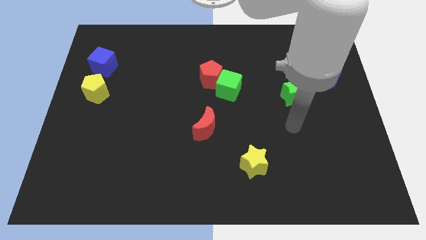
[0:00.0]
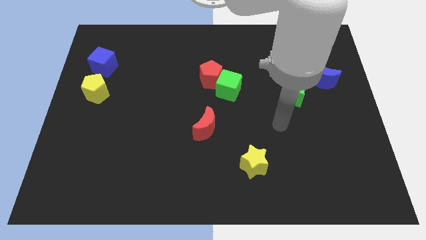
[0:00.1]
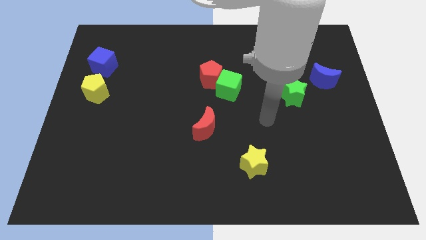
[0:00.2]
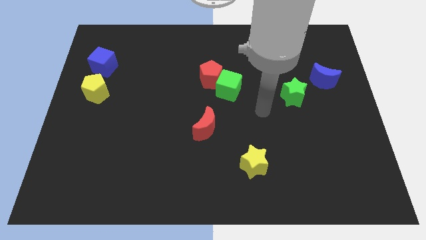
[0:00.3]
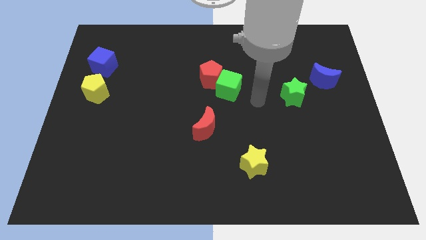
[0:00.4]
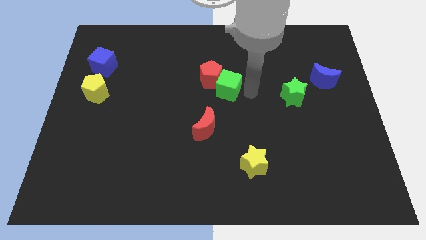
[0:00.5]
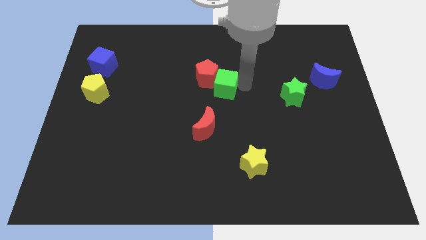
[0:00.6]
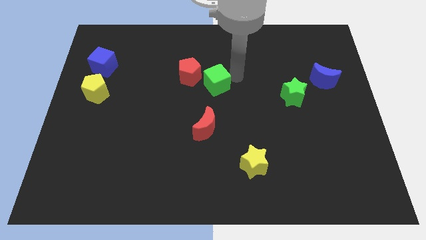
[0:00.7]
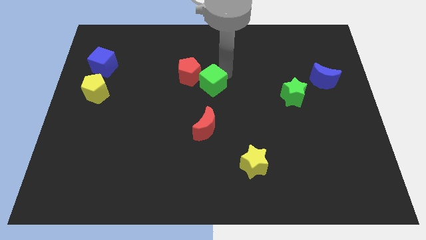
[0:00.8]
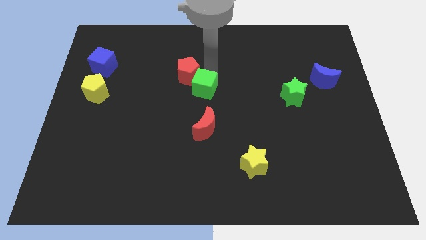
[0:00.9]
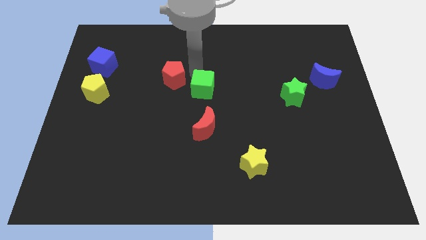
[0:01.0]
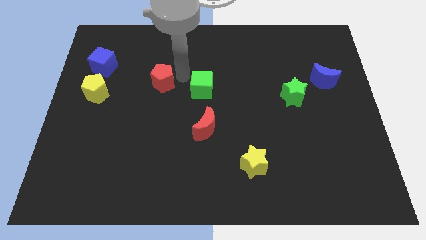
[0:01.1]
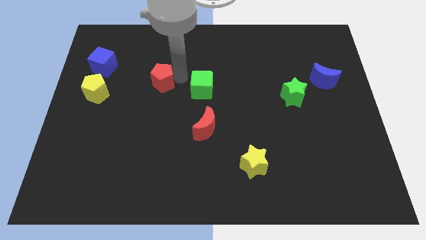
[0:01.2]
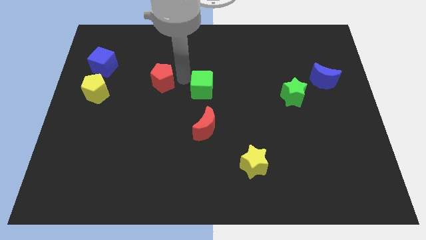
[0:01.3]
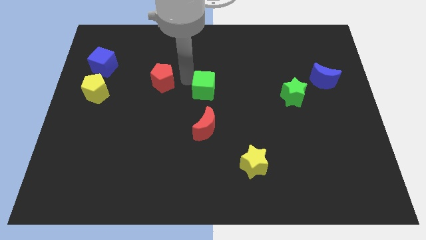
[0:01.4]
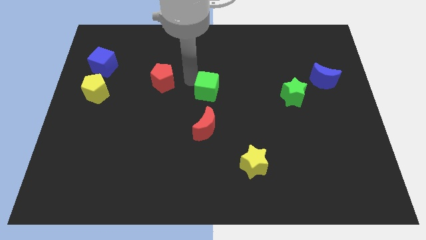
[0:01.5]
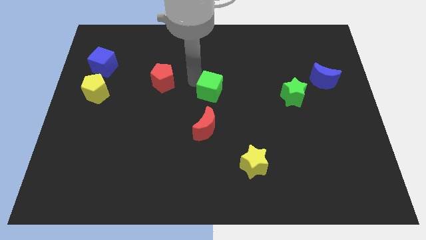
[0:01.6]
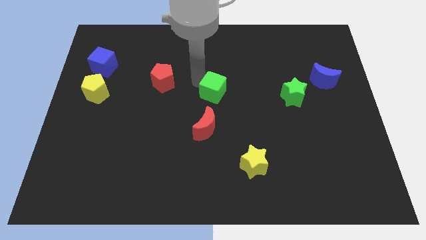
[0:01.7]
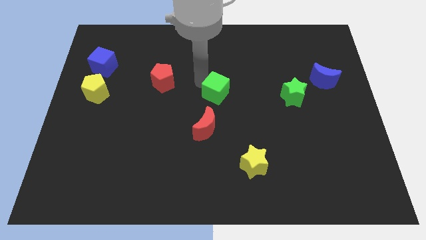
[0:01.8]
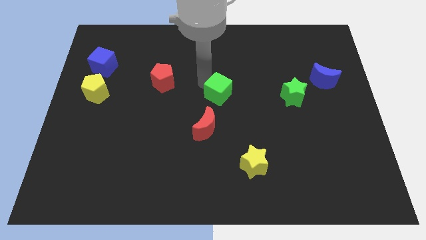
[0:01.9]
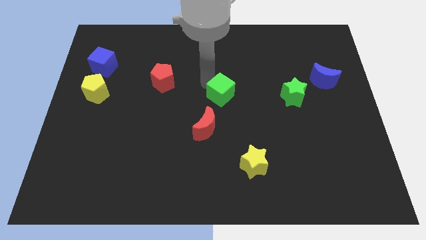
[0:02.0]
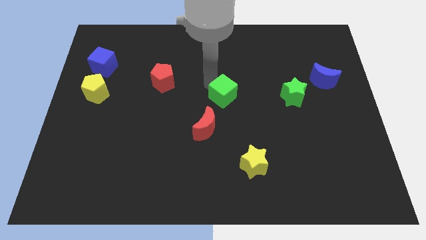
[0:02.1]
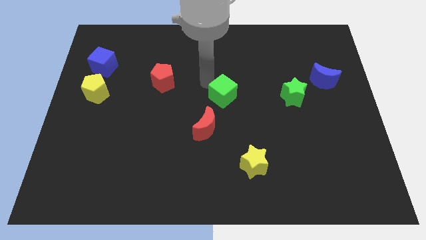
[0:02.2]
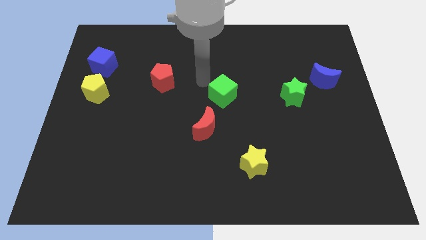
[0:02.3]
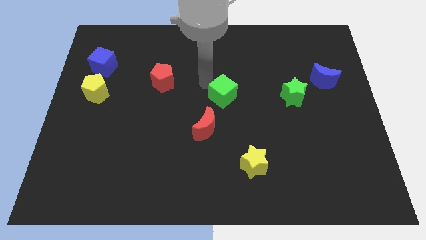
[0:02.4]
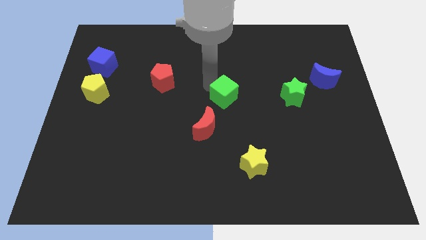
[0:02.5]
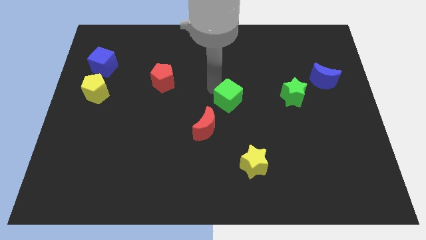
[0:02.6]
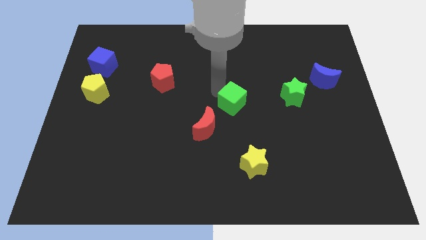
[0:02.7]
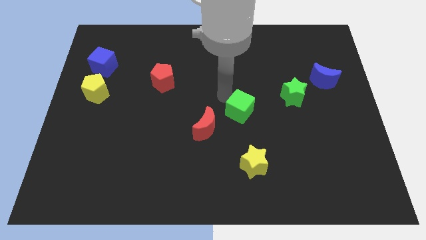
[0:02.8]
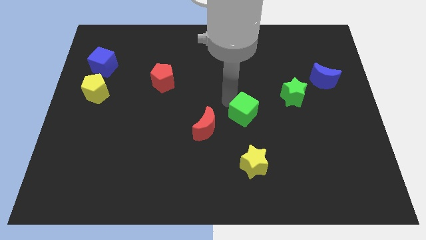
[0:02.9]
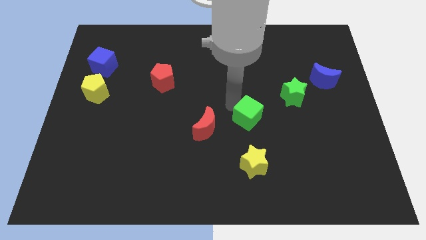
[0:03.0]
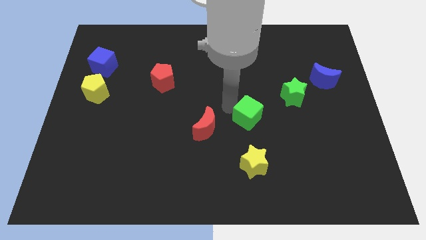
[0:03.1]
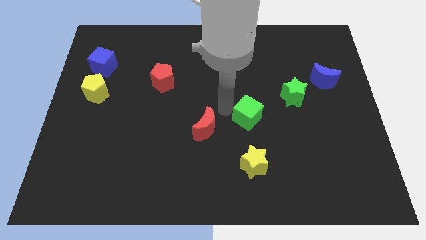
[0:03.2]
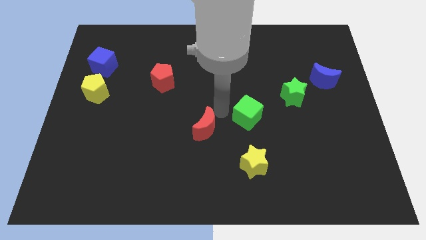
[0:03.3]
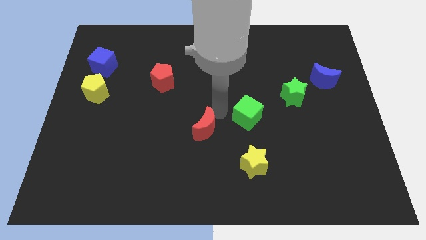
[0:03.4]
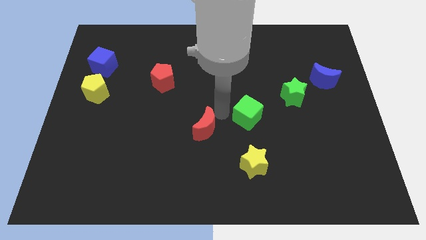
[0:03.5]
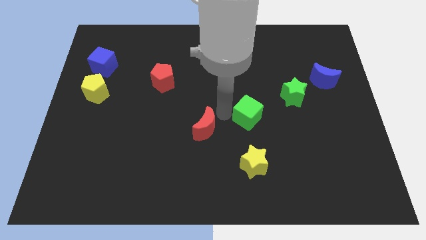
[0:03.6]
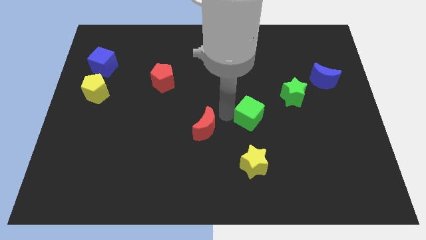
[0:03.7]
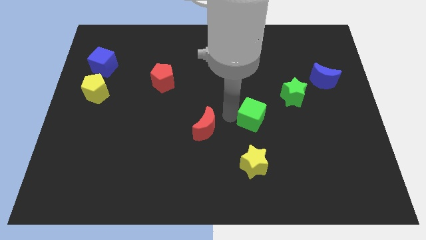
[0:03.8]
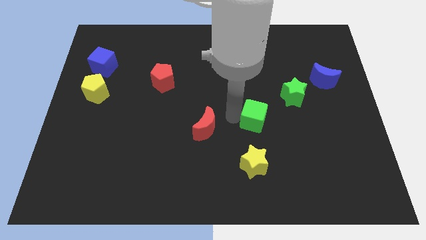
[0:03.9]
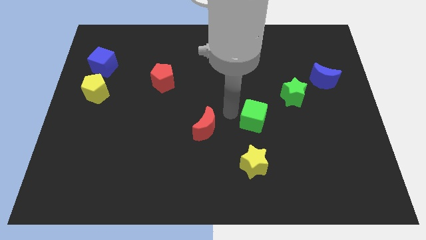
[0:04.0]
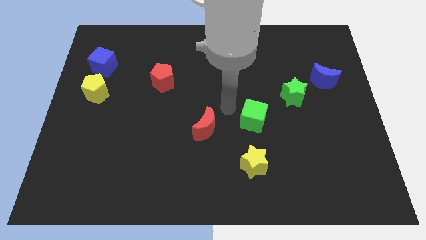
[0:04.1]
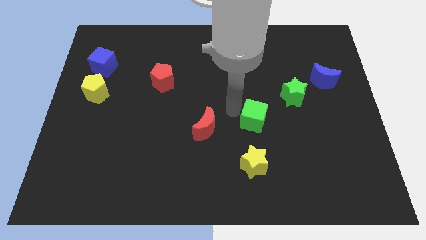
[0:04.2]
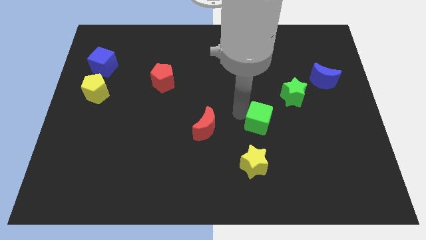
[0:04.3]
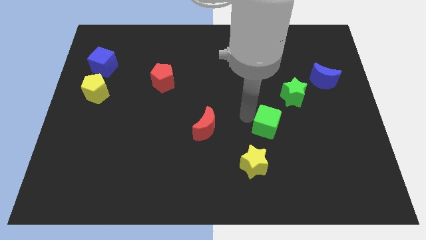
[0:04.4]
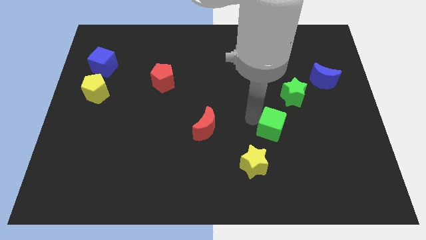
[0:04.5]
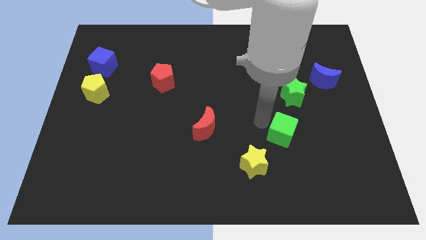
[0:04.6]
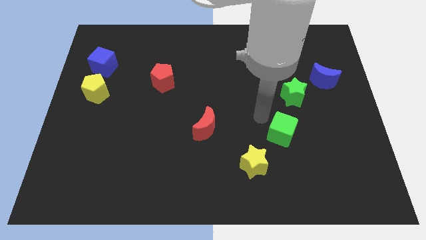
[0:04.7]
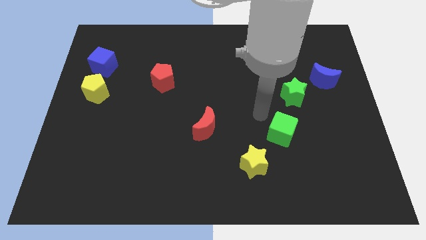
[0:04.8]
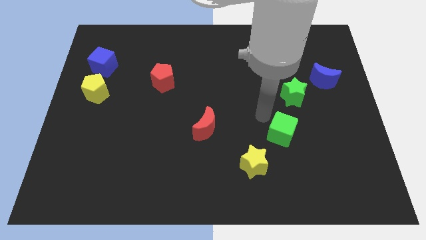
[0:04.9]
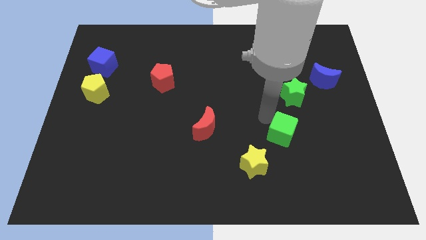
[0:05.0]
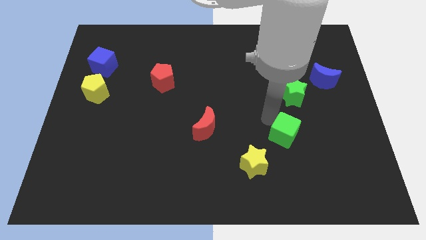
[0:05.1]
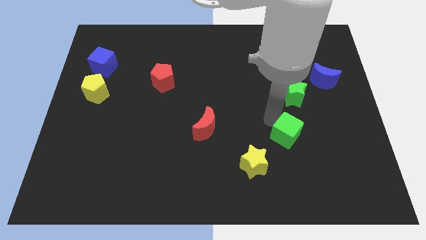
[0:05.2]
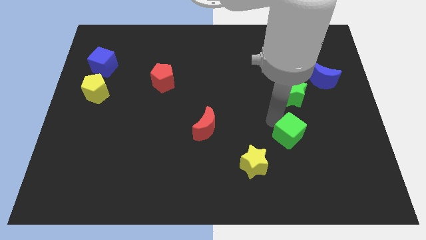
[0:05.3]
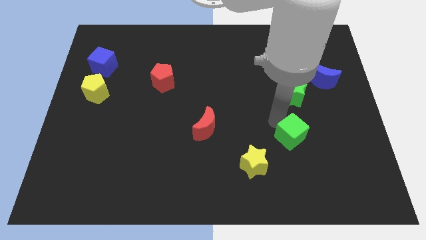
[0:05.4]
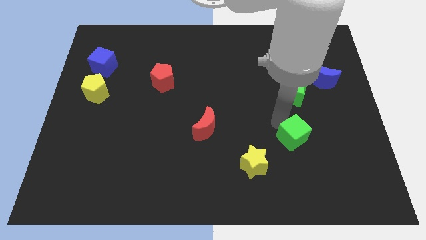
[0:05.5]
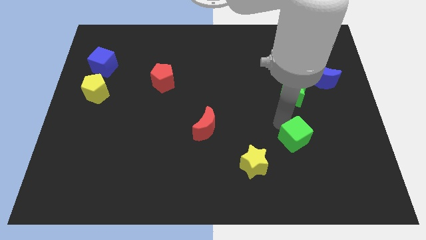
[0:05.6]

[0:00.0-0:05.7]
push the green cube diagonally down and right

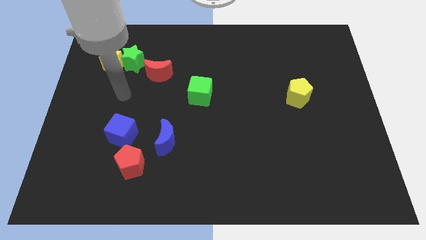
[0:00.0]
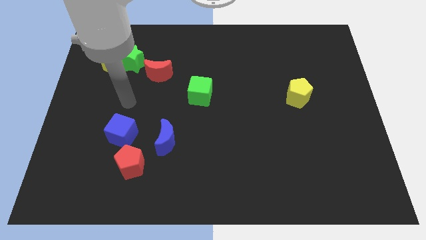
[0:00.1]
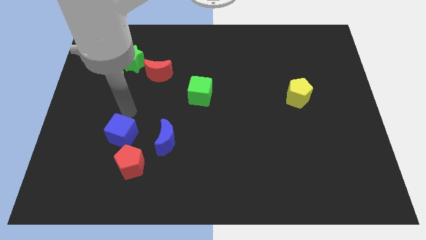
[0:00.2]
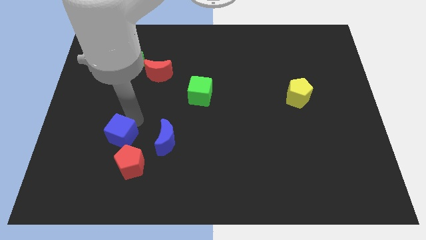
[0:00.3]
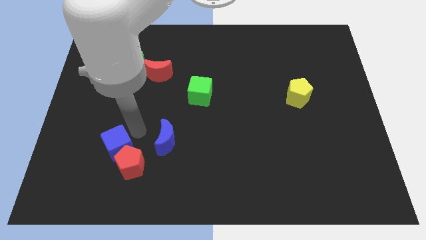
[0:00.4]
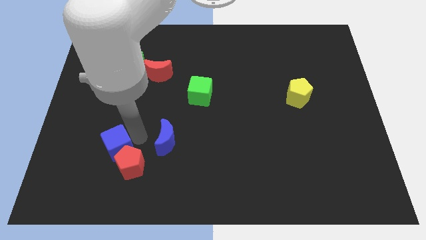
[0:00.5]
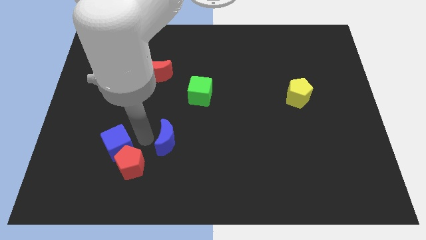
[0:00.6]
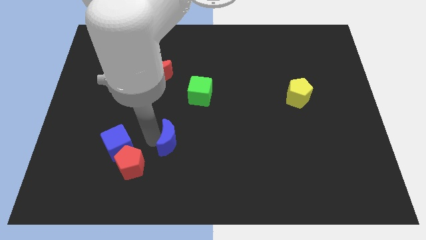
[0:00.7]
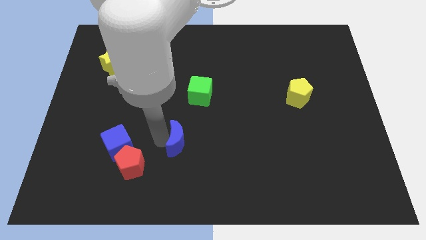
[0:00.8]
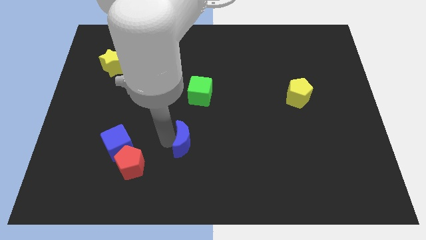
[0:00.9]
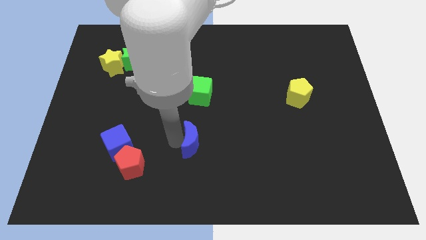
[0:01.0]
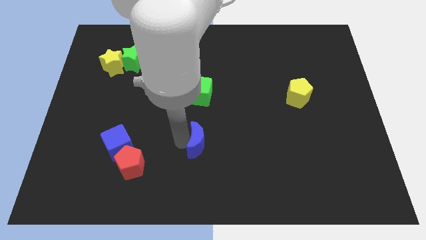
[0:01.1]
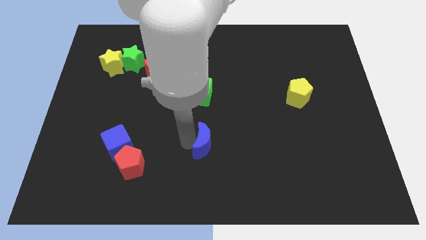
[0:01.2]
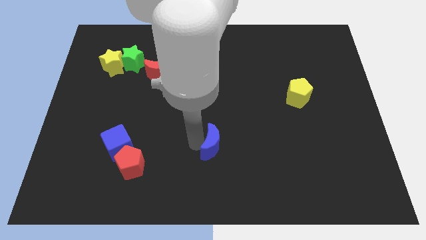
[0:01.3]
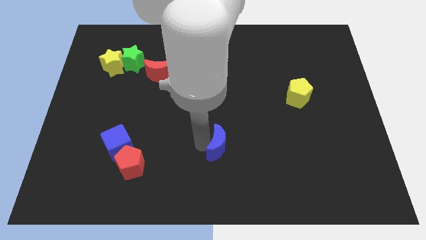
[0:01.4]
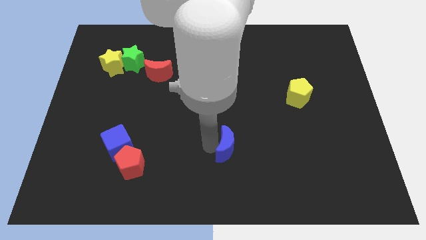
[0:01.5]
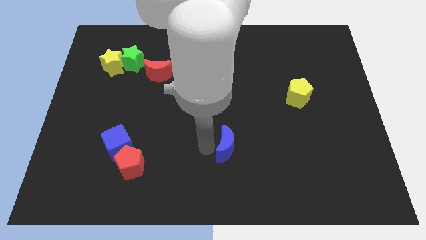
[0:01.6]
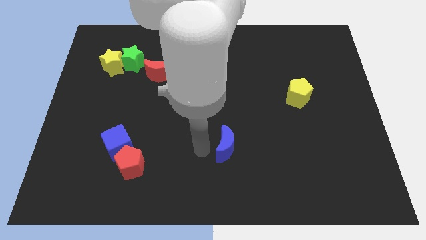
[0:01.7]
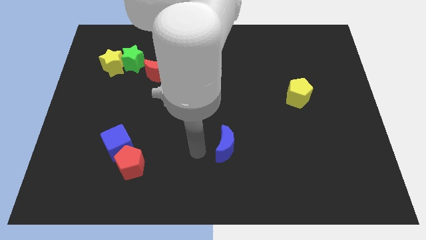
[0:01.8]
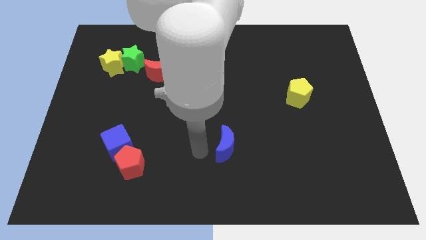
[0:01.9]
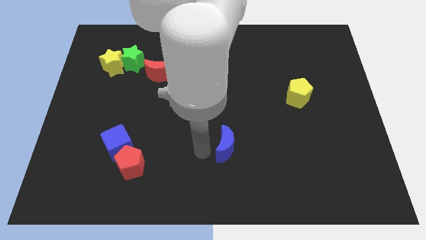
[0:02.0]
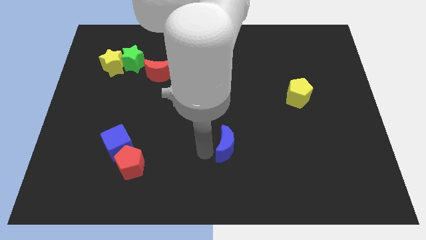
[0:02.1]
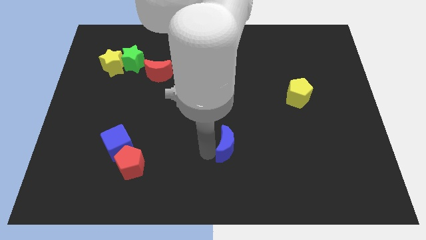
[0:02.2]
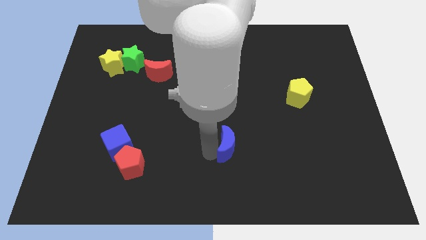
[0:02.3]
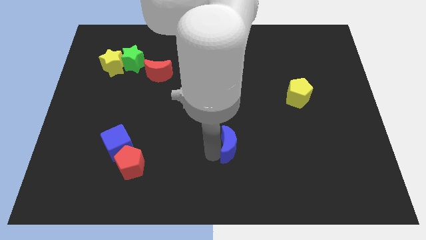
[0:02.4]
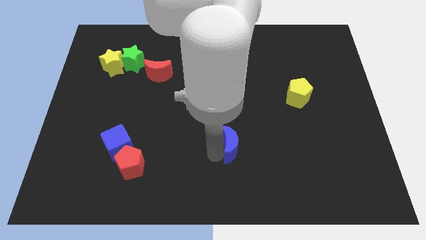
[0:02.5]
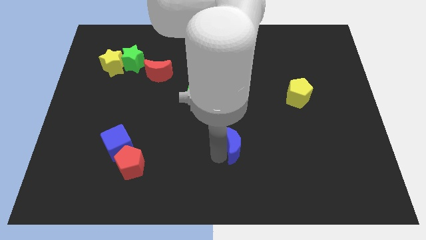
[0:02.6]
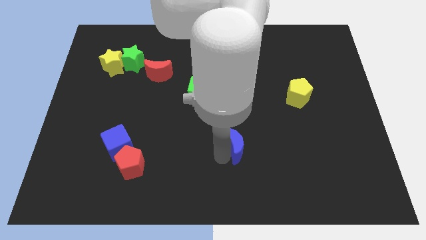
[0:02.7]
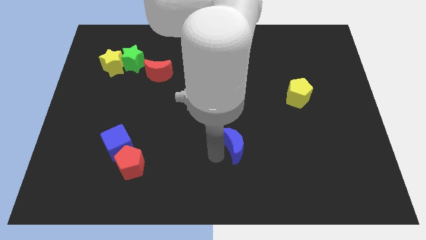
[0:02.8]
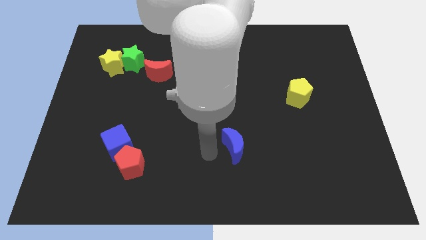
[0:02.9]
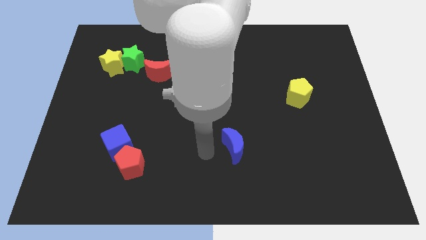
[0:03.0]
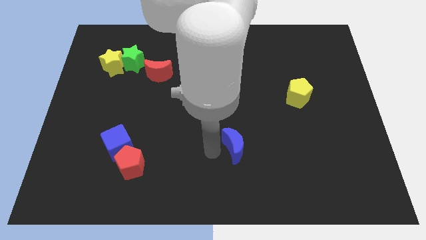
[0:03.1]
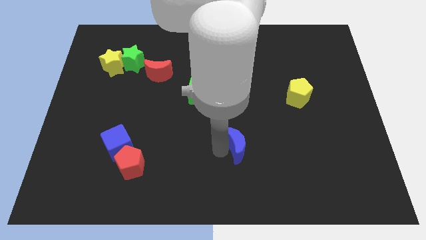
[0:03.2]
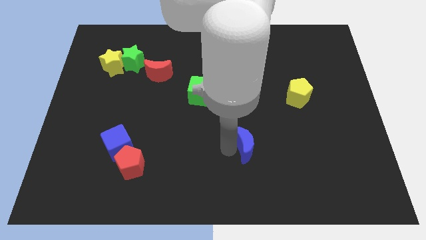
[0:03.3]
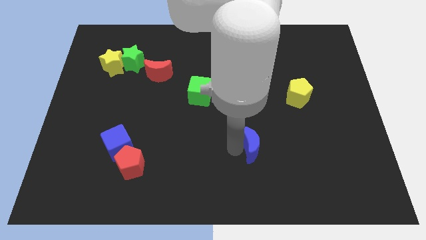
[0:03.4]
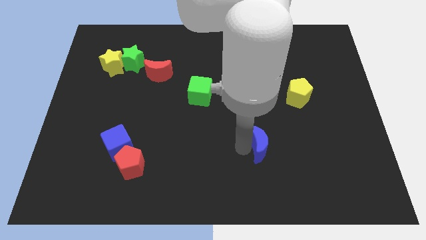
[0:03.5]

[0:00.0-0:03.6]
move the blue moon to the right
